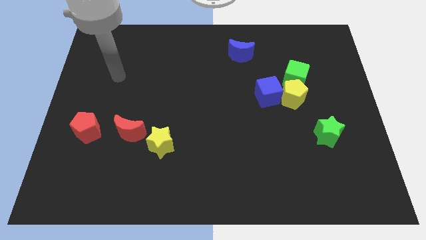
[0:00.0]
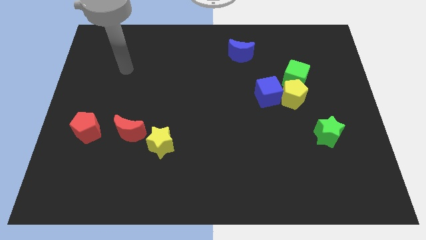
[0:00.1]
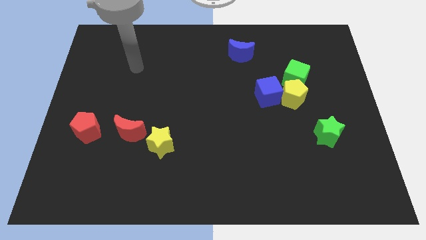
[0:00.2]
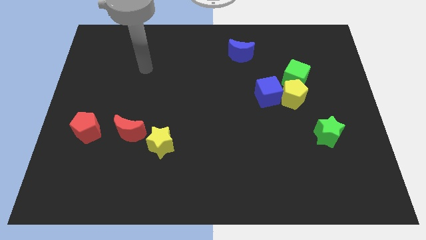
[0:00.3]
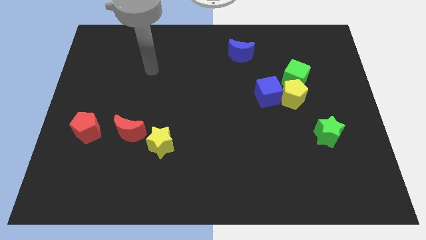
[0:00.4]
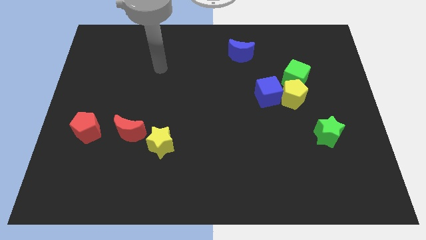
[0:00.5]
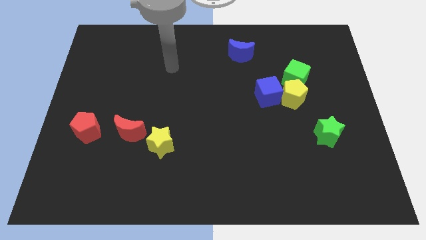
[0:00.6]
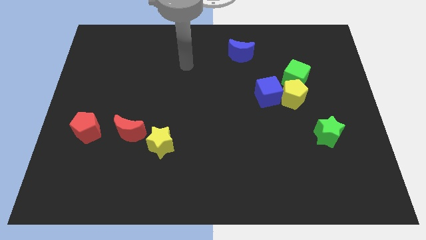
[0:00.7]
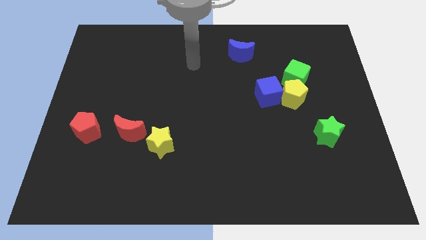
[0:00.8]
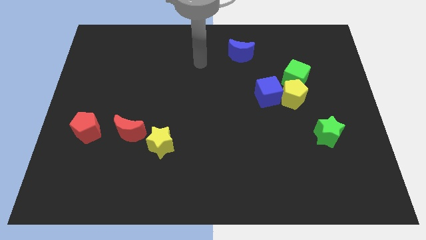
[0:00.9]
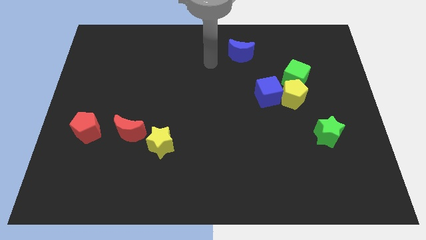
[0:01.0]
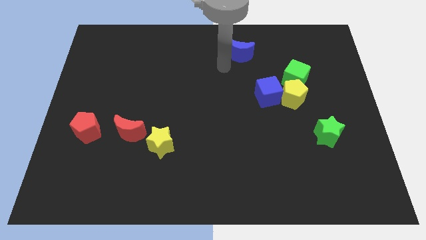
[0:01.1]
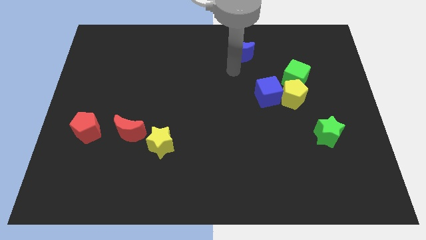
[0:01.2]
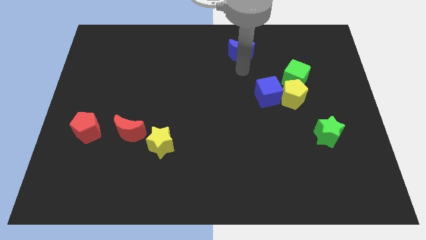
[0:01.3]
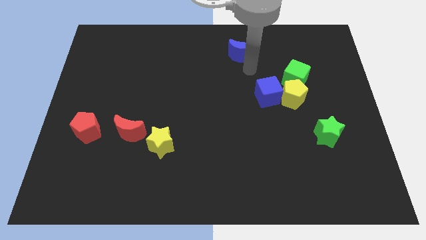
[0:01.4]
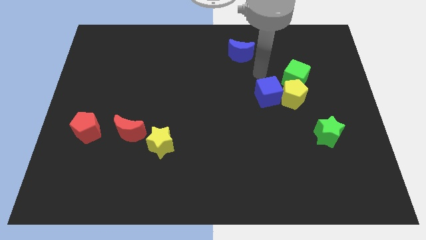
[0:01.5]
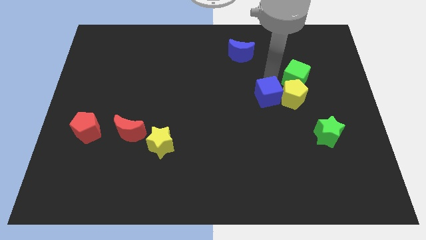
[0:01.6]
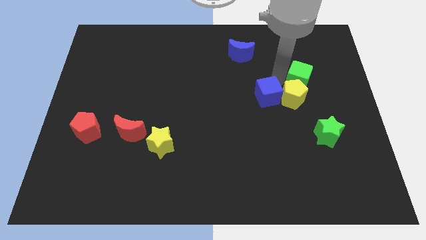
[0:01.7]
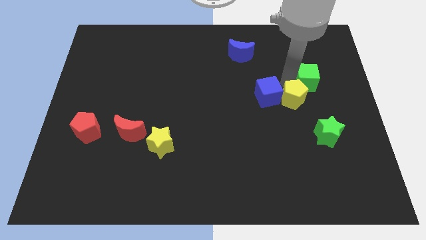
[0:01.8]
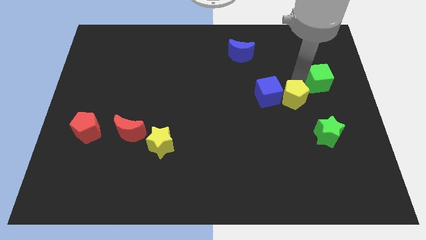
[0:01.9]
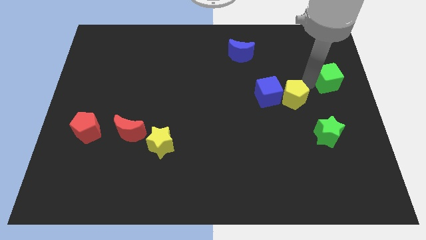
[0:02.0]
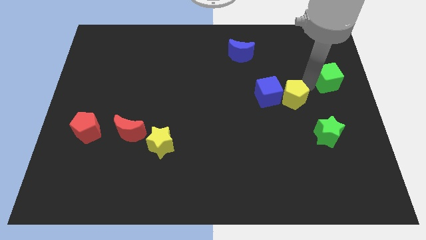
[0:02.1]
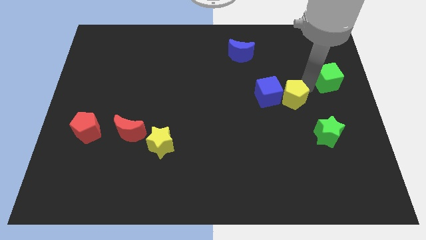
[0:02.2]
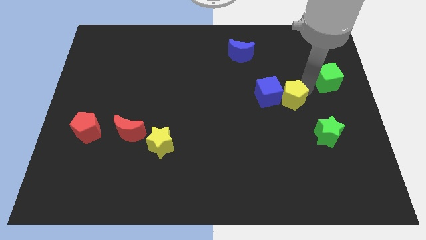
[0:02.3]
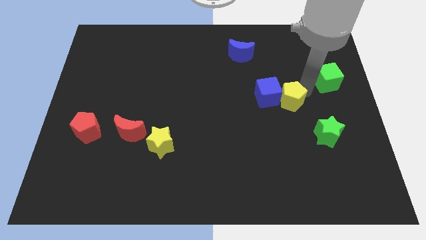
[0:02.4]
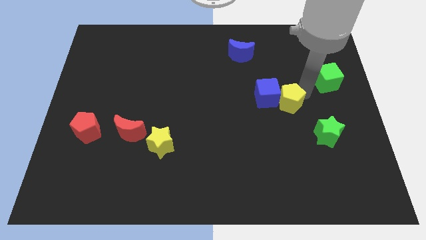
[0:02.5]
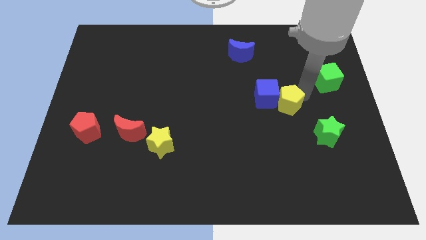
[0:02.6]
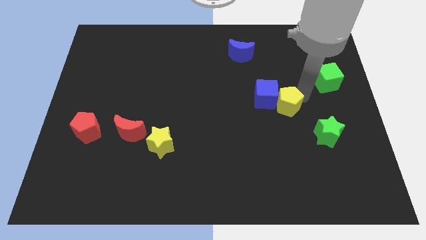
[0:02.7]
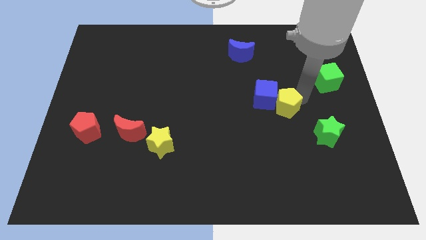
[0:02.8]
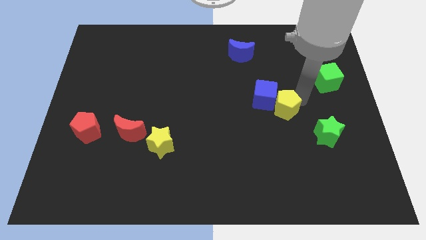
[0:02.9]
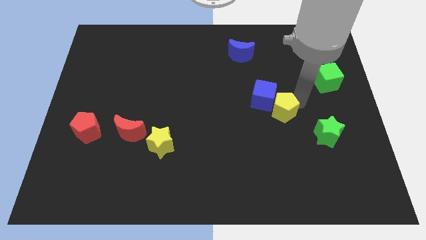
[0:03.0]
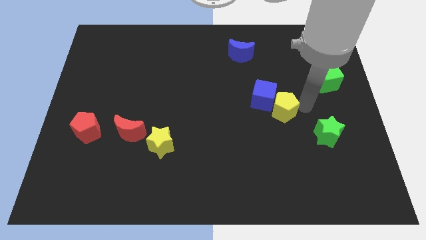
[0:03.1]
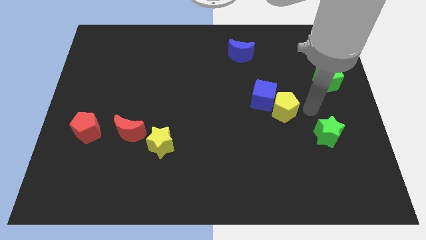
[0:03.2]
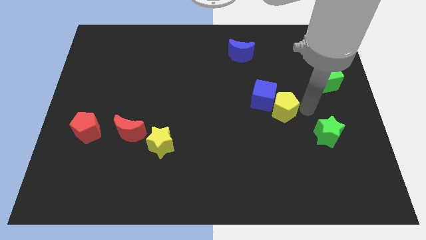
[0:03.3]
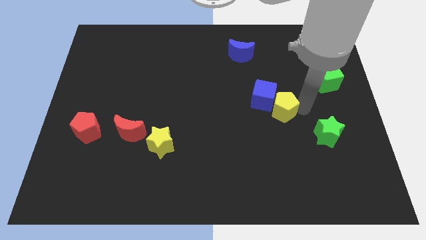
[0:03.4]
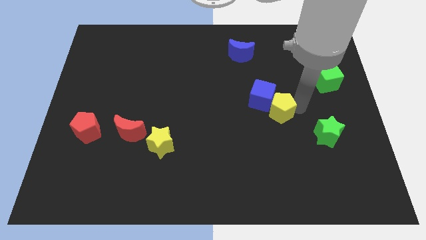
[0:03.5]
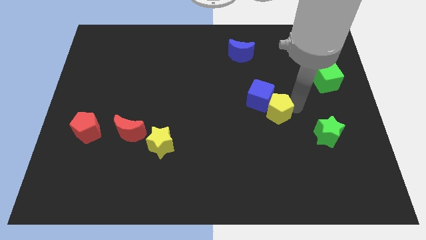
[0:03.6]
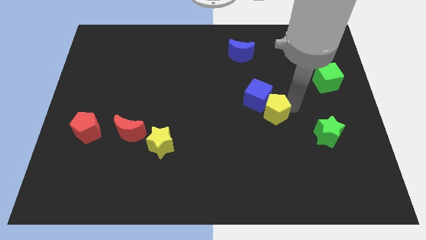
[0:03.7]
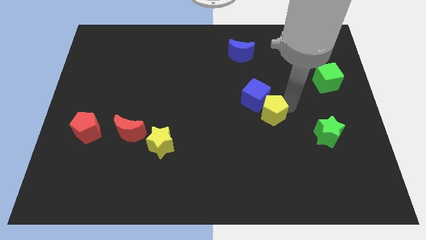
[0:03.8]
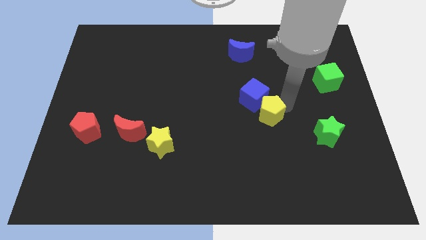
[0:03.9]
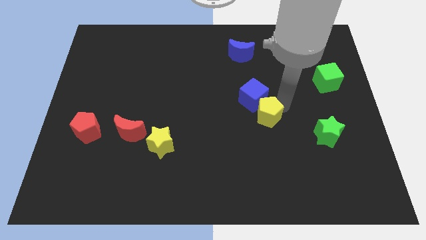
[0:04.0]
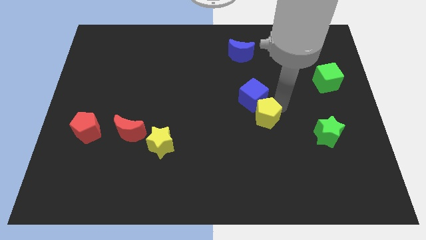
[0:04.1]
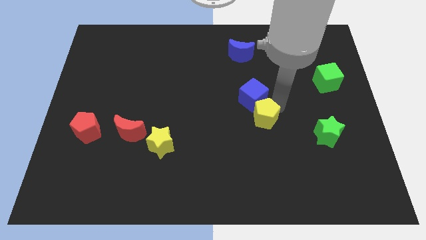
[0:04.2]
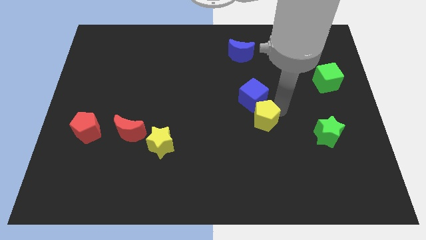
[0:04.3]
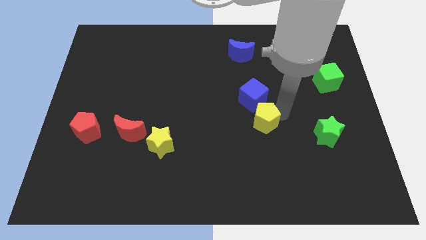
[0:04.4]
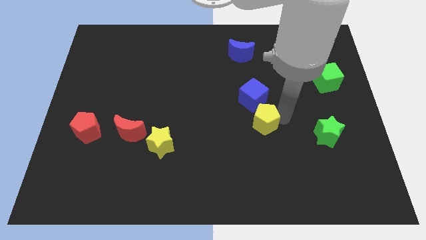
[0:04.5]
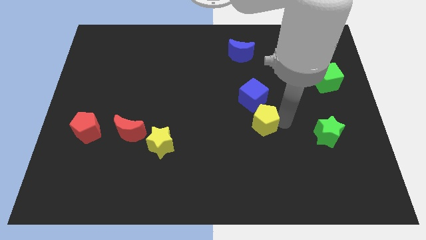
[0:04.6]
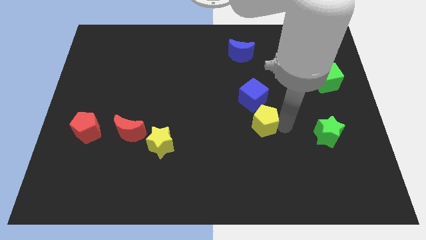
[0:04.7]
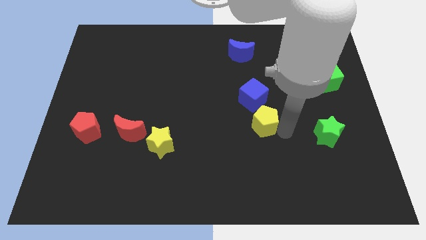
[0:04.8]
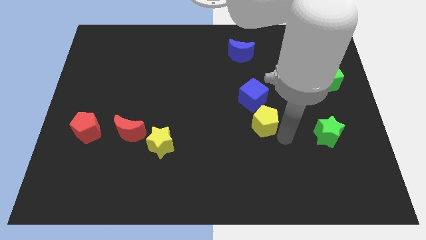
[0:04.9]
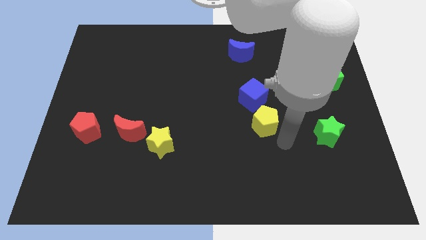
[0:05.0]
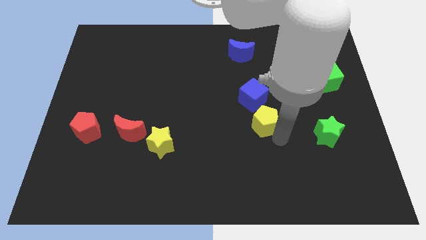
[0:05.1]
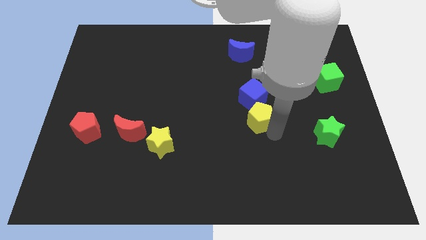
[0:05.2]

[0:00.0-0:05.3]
put the yellow pentagon to the center

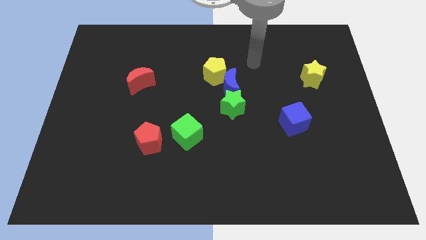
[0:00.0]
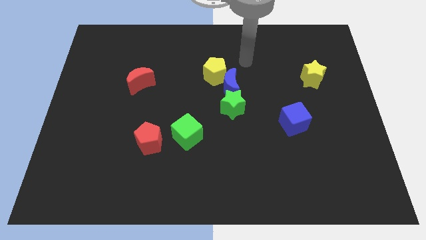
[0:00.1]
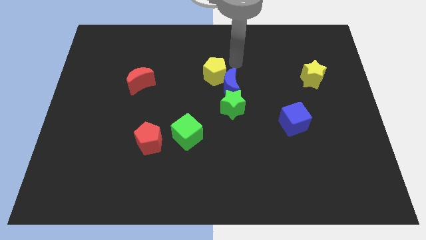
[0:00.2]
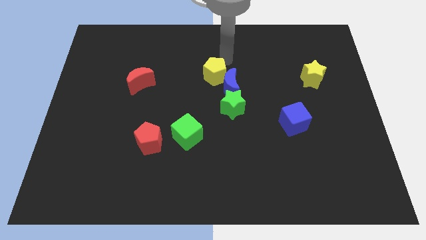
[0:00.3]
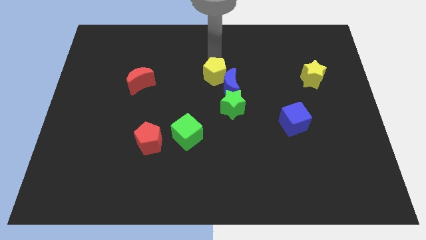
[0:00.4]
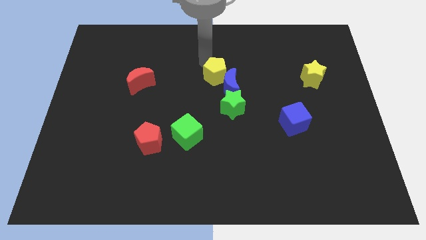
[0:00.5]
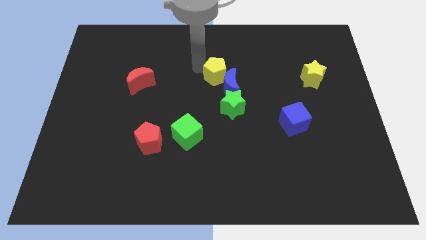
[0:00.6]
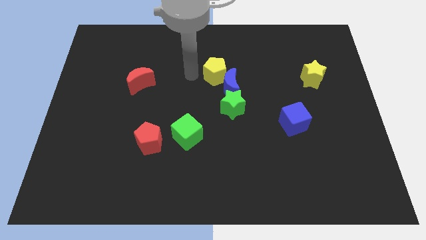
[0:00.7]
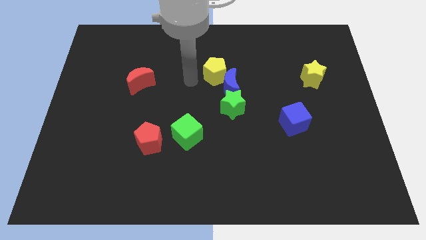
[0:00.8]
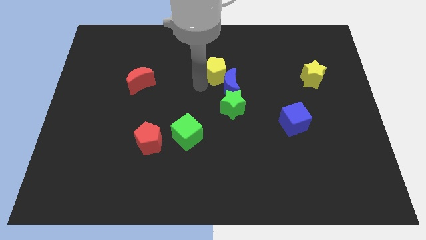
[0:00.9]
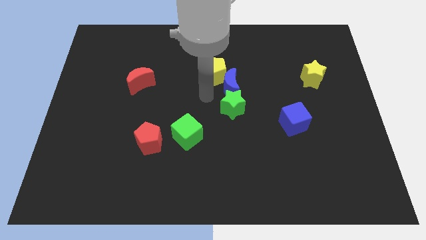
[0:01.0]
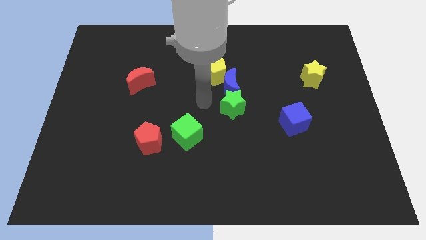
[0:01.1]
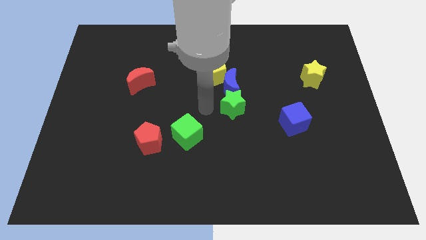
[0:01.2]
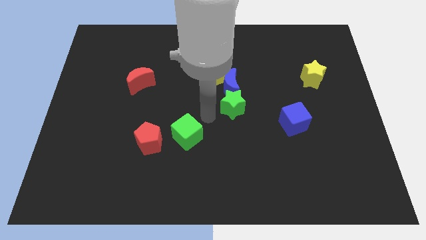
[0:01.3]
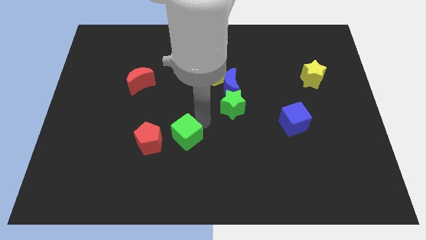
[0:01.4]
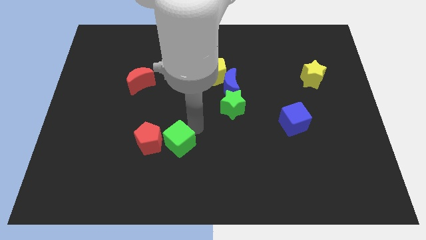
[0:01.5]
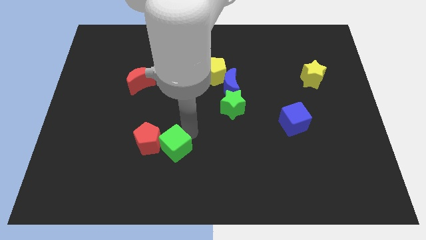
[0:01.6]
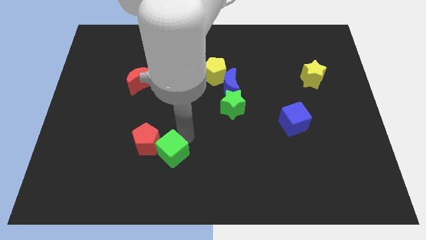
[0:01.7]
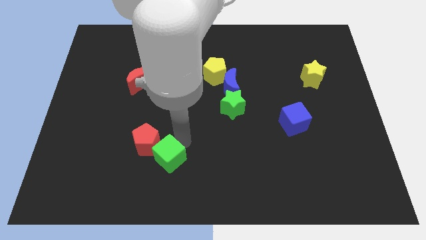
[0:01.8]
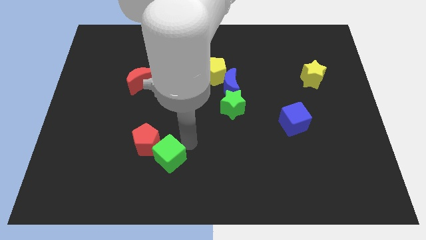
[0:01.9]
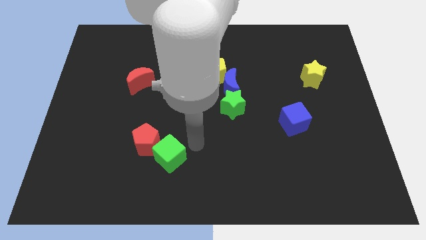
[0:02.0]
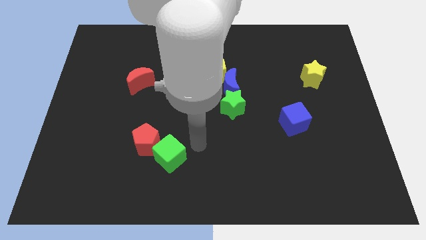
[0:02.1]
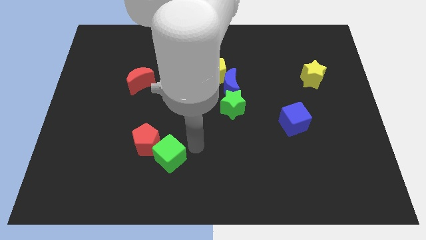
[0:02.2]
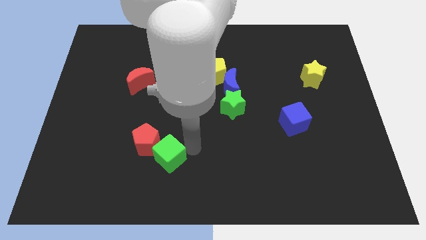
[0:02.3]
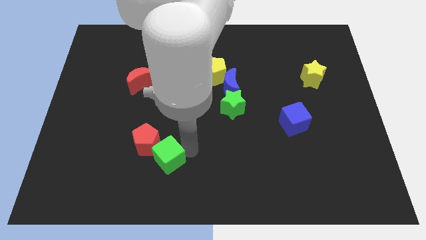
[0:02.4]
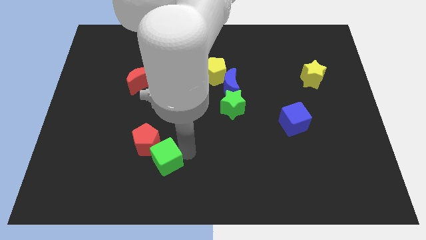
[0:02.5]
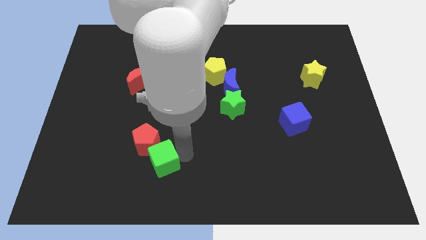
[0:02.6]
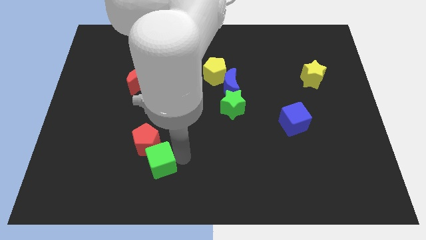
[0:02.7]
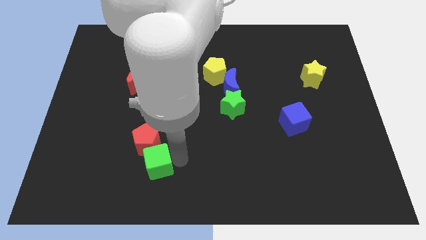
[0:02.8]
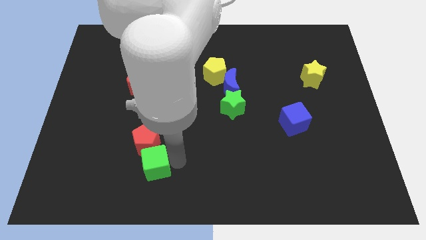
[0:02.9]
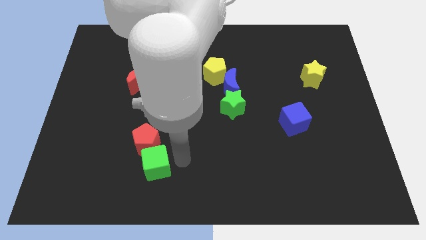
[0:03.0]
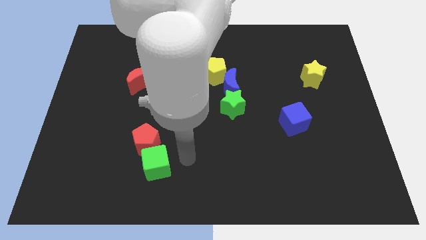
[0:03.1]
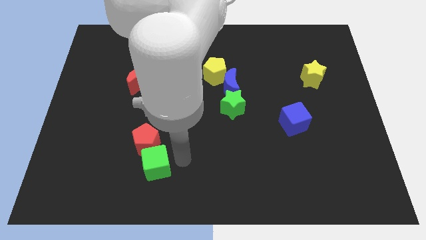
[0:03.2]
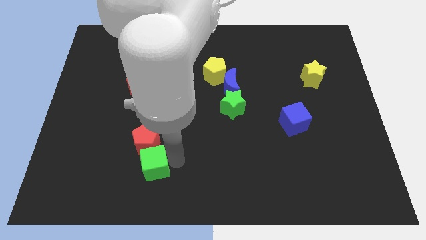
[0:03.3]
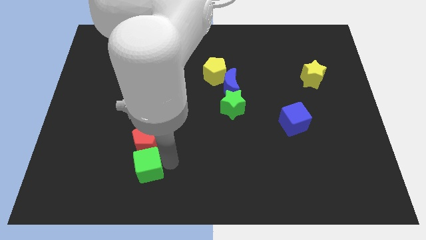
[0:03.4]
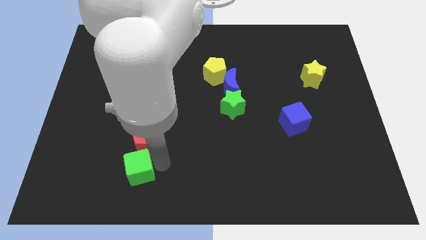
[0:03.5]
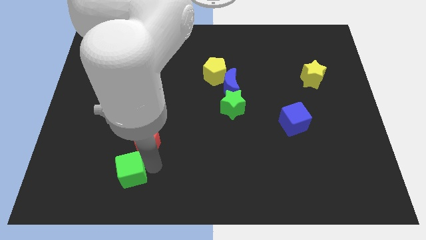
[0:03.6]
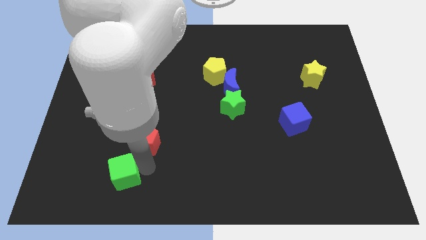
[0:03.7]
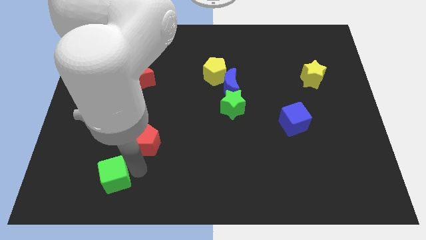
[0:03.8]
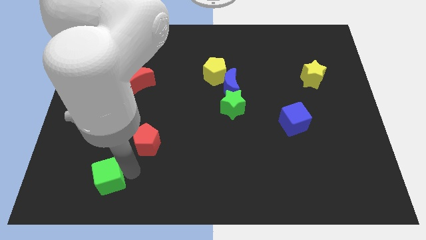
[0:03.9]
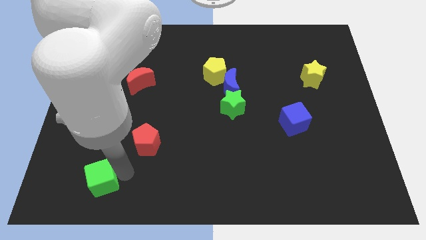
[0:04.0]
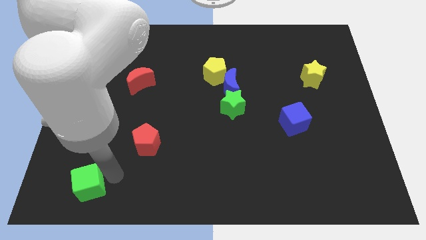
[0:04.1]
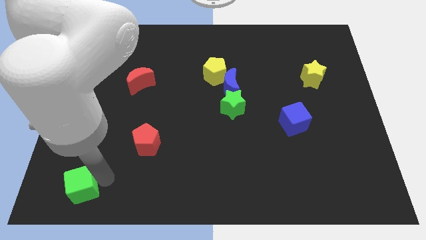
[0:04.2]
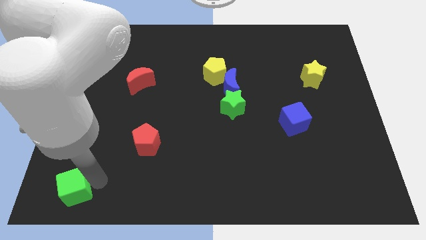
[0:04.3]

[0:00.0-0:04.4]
put the green cube to the bottom left of the board
